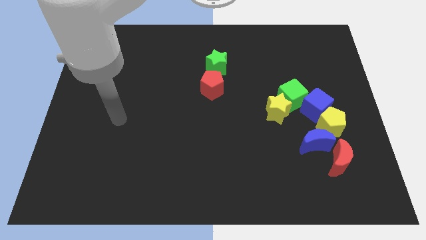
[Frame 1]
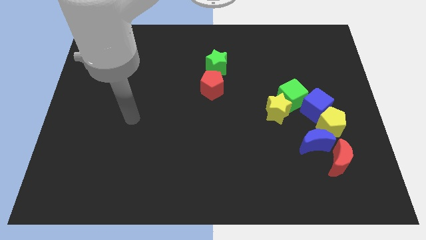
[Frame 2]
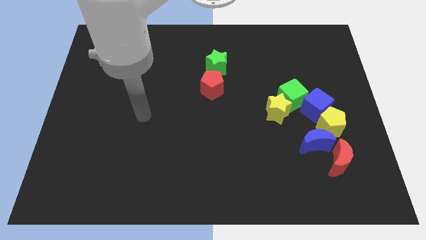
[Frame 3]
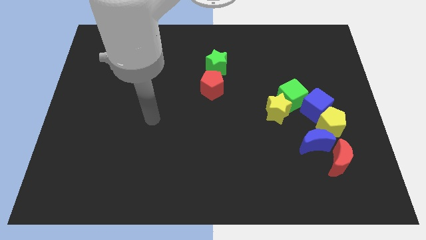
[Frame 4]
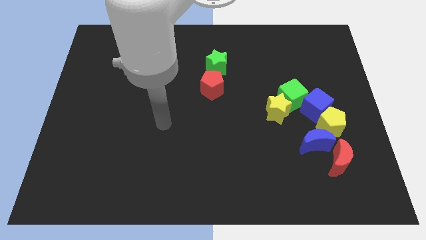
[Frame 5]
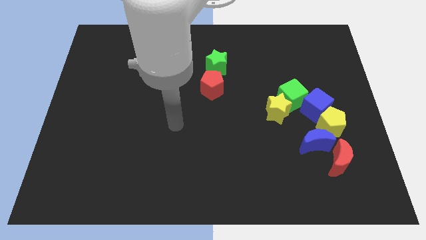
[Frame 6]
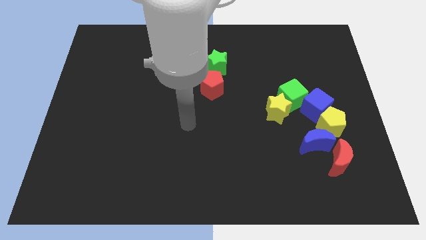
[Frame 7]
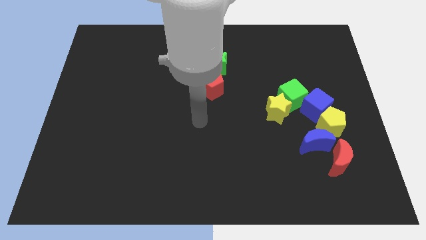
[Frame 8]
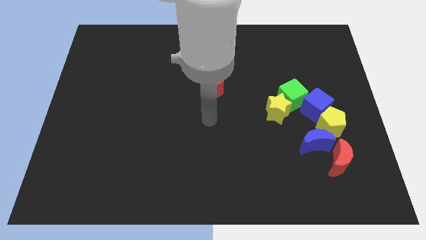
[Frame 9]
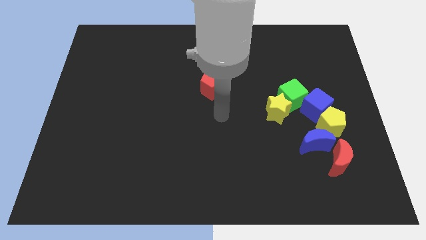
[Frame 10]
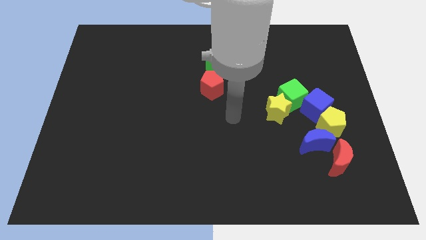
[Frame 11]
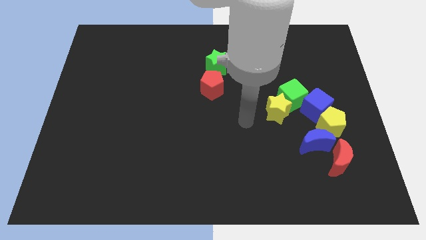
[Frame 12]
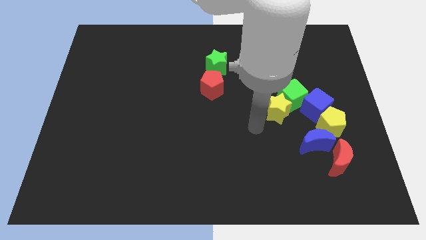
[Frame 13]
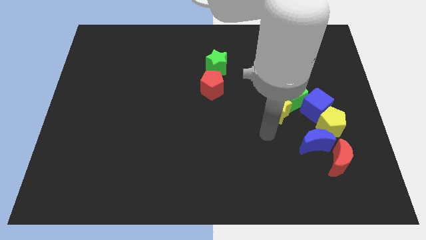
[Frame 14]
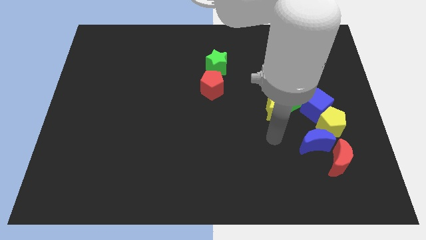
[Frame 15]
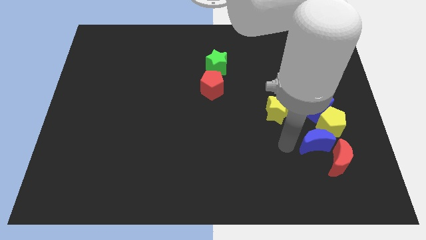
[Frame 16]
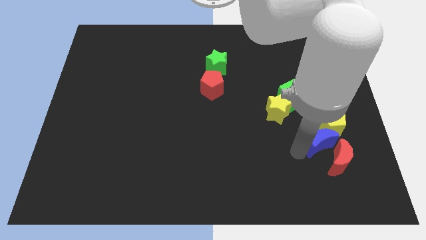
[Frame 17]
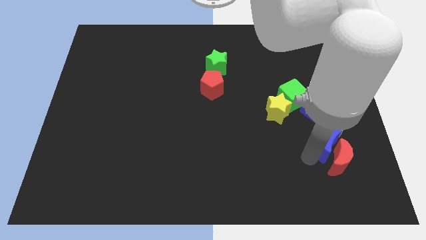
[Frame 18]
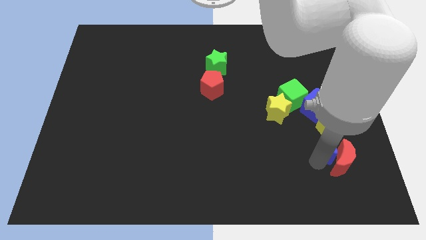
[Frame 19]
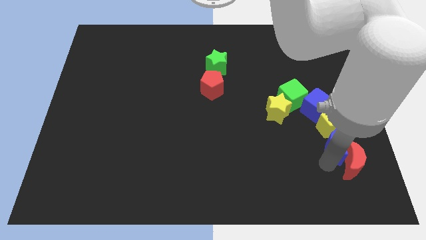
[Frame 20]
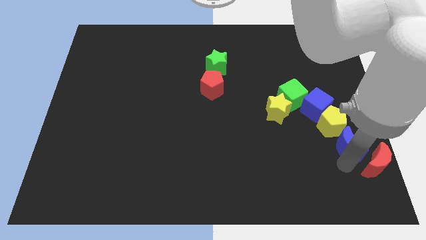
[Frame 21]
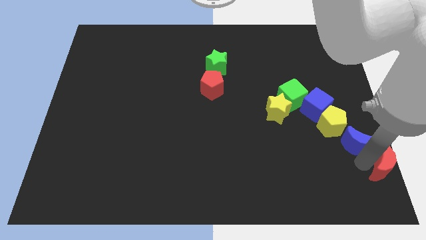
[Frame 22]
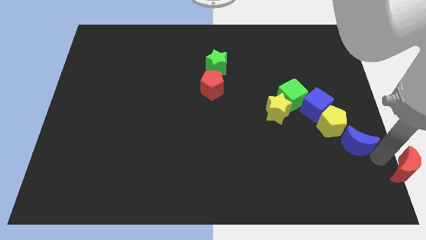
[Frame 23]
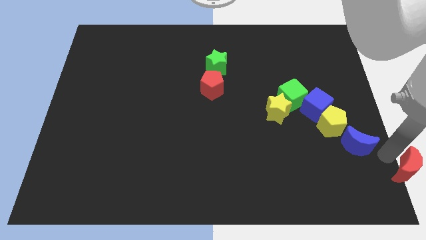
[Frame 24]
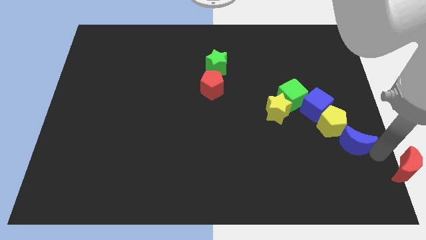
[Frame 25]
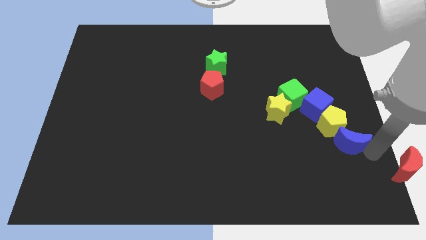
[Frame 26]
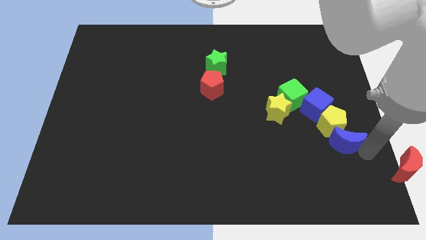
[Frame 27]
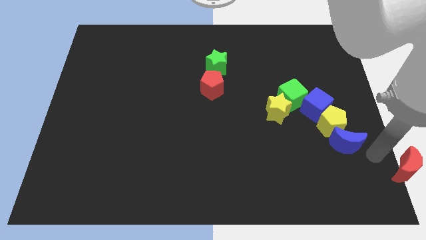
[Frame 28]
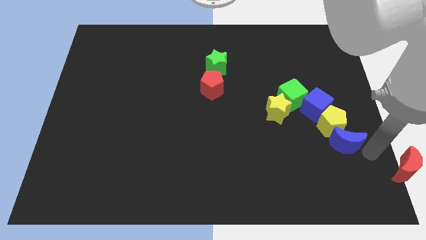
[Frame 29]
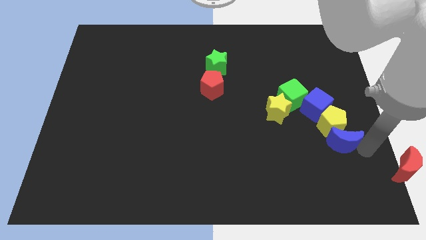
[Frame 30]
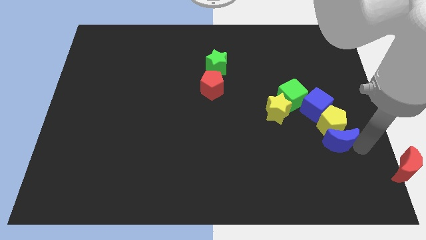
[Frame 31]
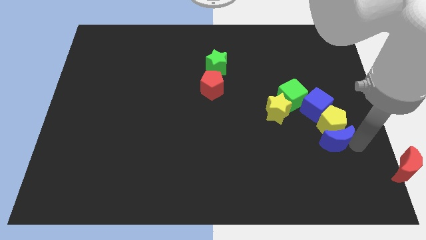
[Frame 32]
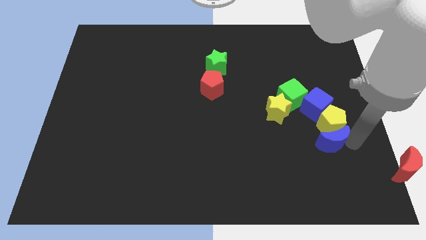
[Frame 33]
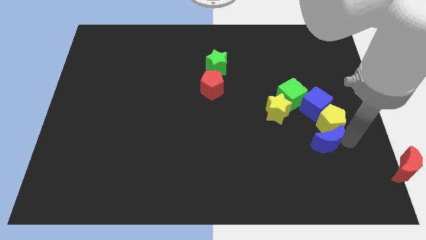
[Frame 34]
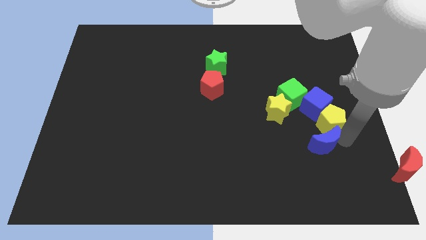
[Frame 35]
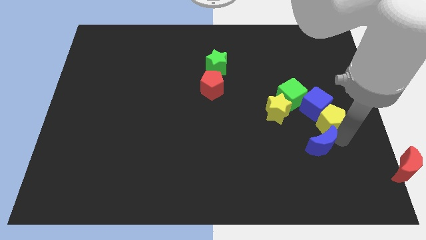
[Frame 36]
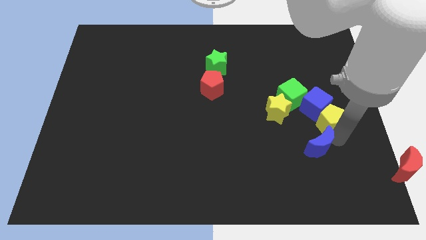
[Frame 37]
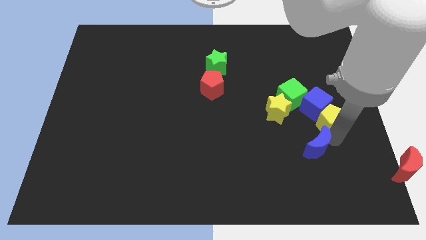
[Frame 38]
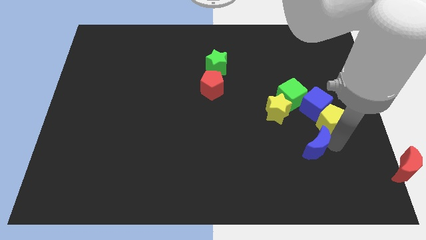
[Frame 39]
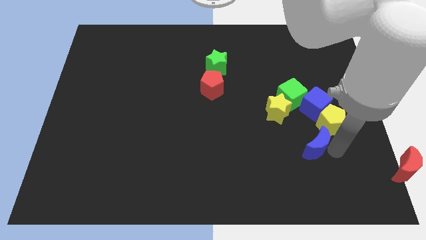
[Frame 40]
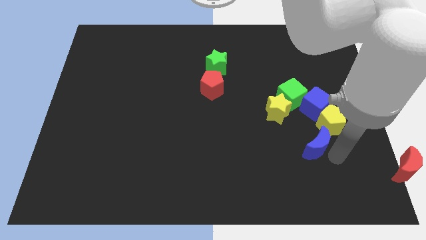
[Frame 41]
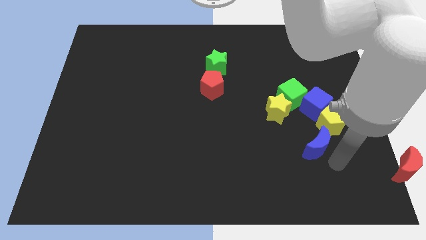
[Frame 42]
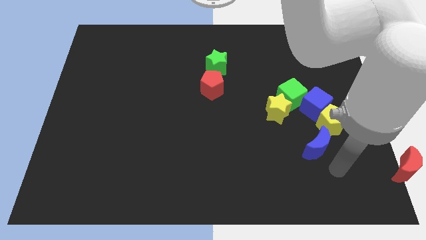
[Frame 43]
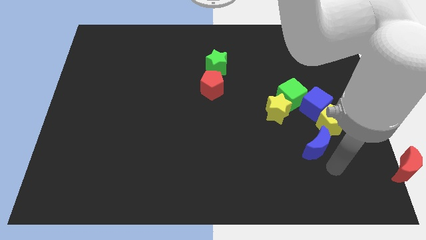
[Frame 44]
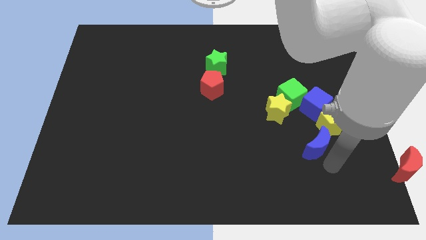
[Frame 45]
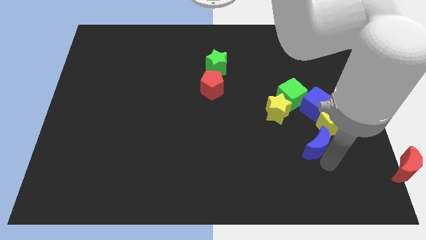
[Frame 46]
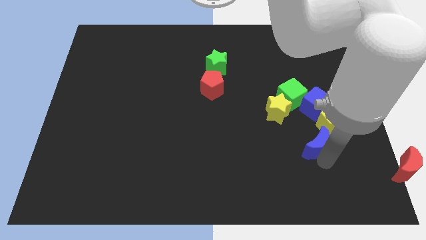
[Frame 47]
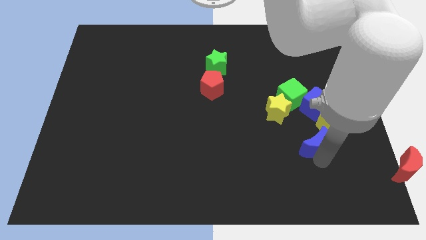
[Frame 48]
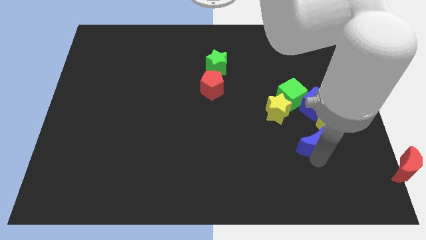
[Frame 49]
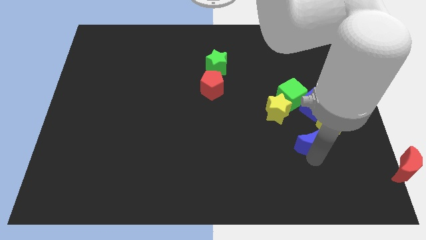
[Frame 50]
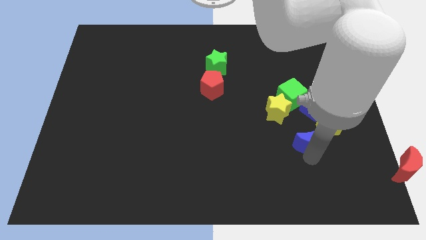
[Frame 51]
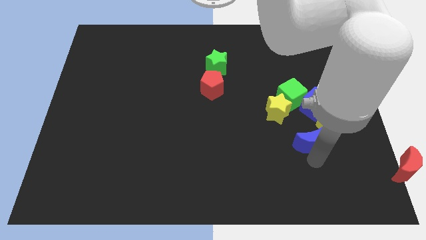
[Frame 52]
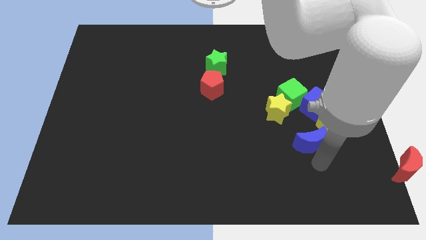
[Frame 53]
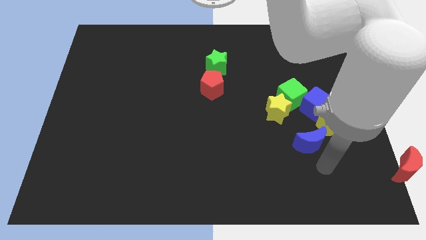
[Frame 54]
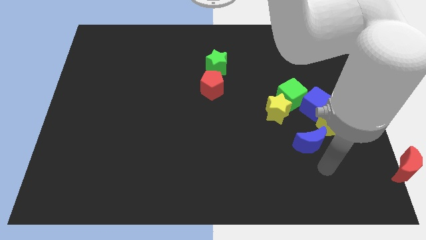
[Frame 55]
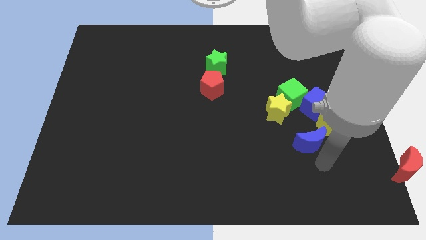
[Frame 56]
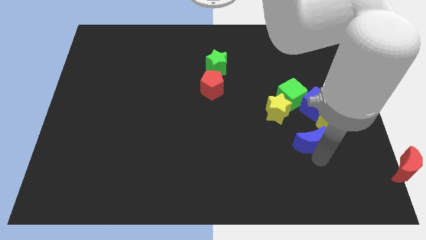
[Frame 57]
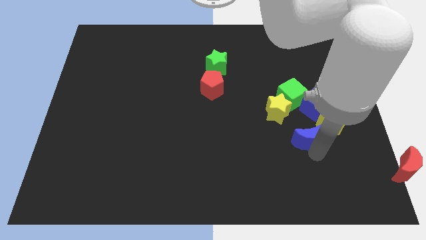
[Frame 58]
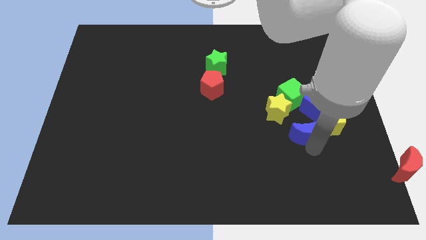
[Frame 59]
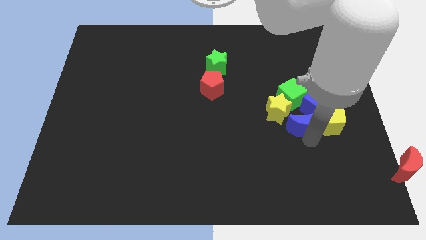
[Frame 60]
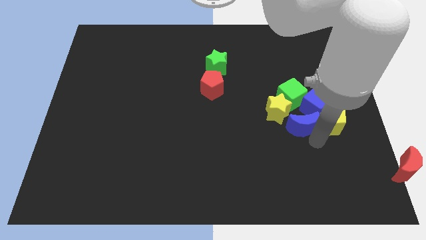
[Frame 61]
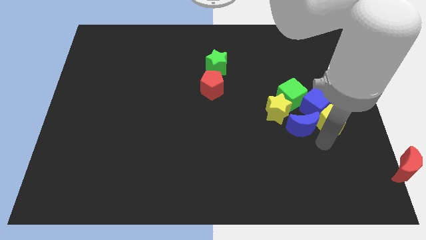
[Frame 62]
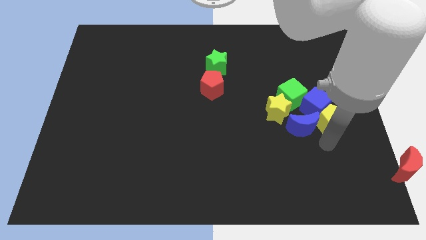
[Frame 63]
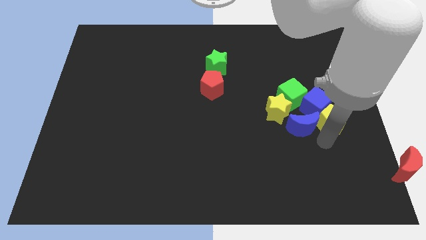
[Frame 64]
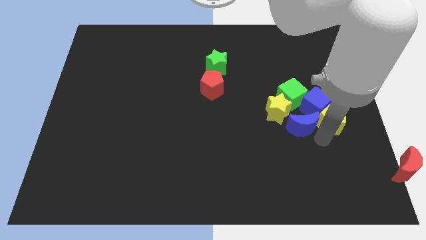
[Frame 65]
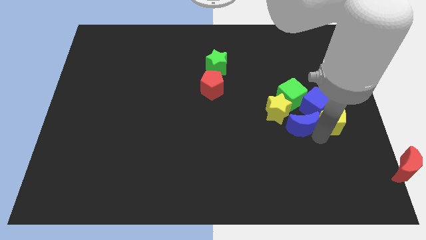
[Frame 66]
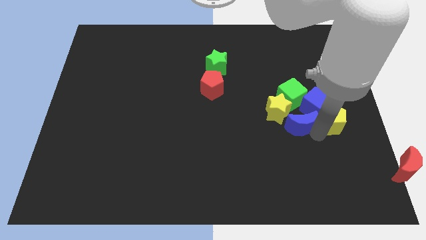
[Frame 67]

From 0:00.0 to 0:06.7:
move the blue moon next to the yellow star

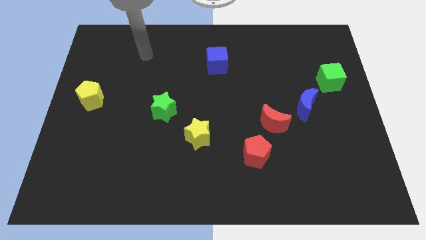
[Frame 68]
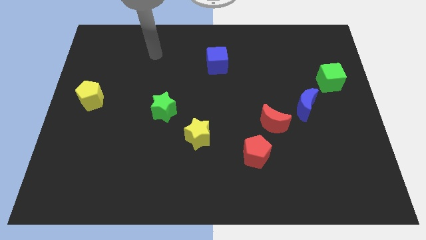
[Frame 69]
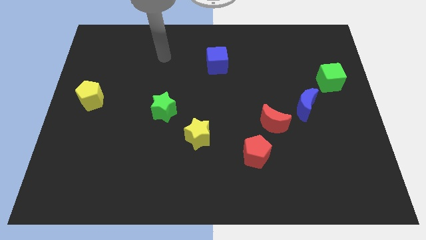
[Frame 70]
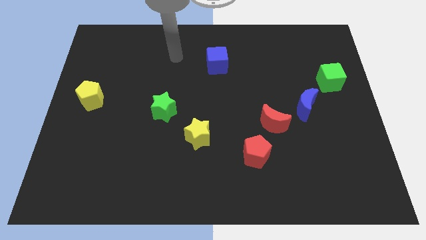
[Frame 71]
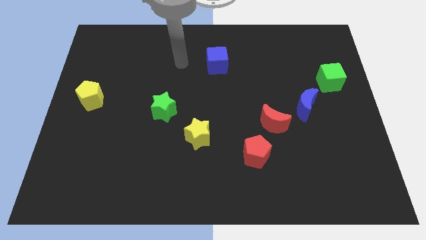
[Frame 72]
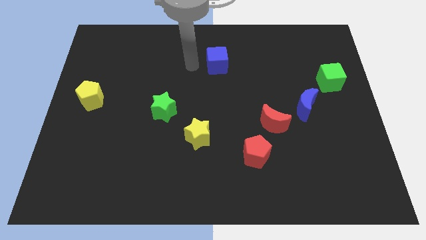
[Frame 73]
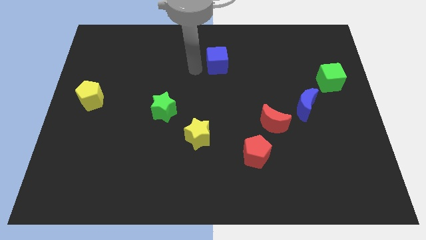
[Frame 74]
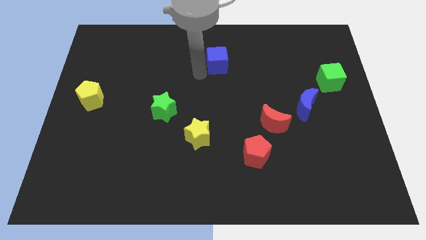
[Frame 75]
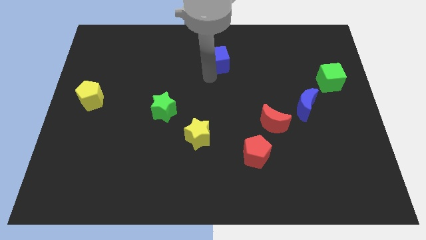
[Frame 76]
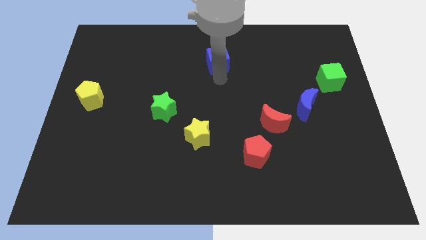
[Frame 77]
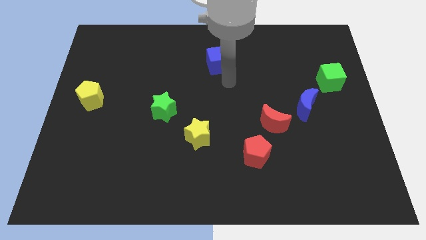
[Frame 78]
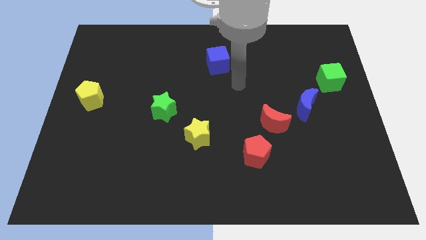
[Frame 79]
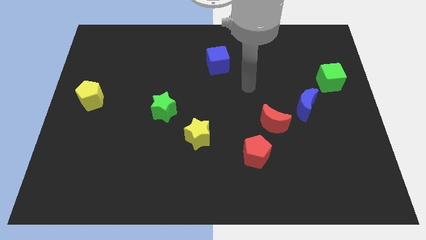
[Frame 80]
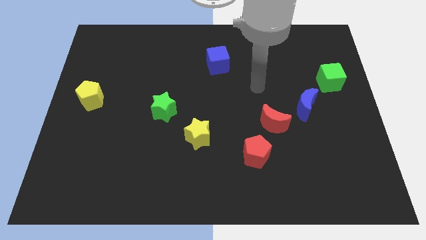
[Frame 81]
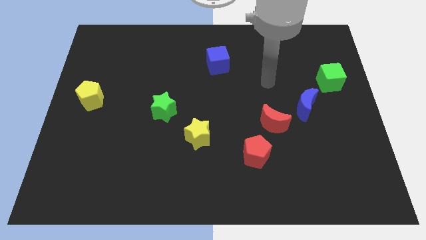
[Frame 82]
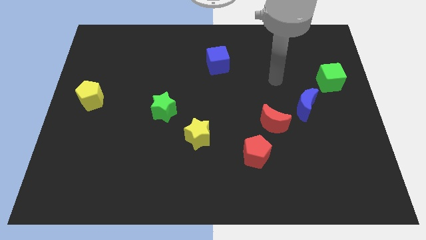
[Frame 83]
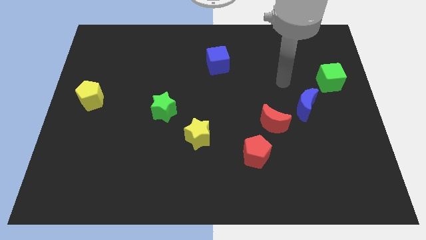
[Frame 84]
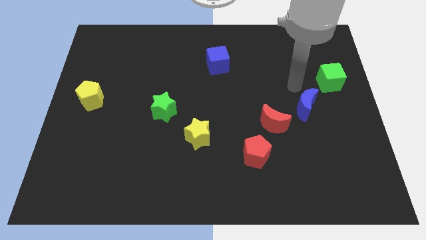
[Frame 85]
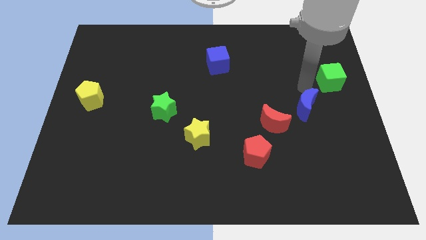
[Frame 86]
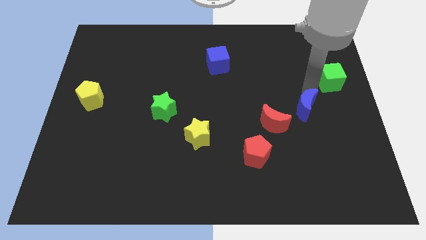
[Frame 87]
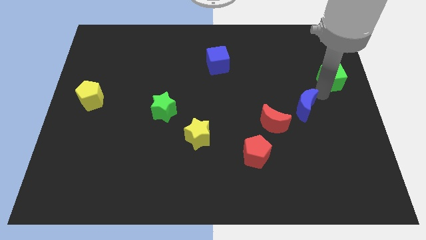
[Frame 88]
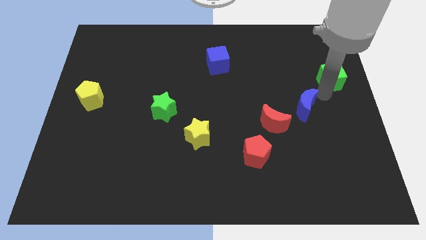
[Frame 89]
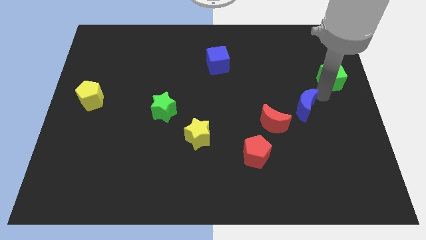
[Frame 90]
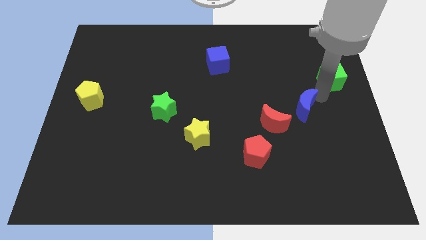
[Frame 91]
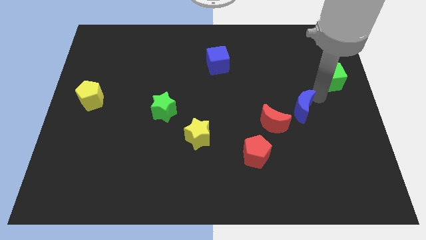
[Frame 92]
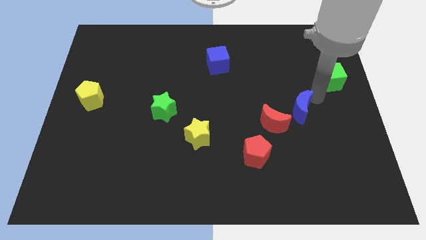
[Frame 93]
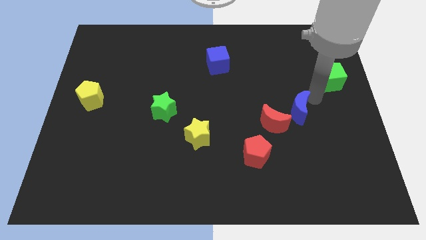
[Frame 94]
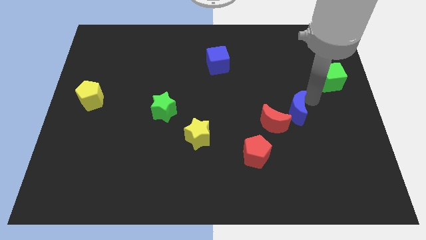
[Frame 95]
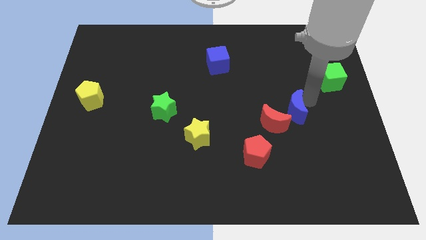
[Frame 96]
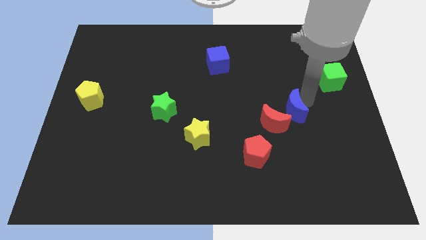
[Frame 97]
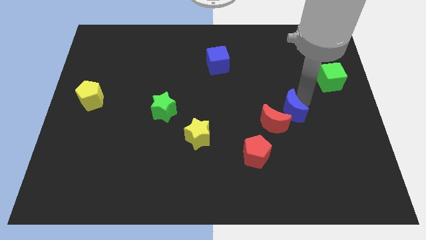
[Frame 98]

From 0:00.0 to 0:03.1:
put the blue moon towards the red moon
